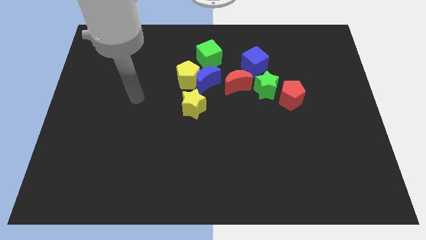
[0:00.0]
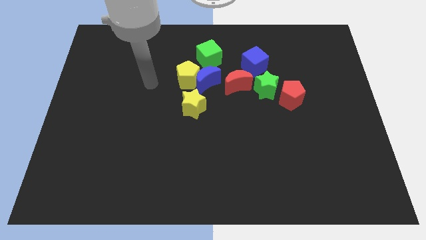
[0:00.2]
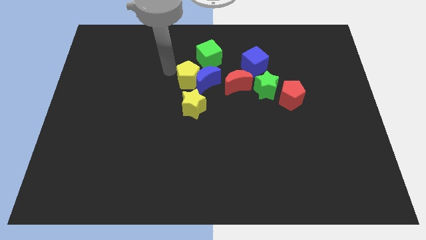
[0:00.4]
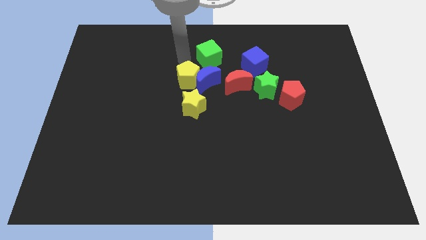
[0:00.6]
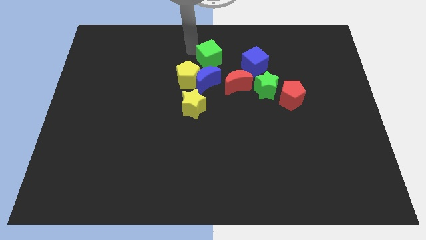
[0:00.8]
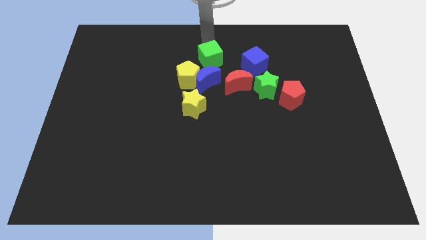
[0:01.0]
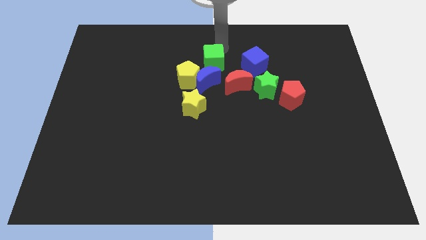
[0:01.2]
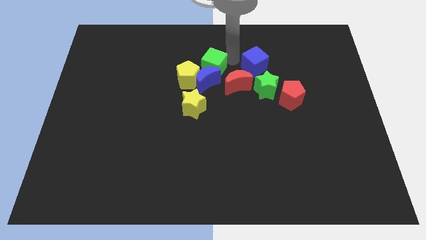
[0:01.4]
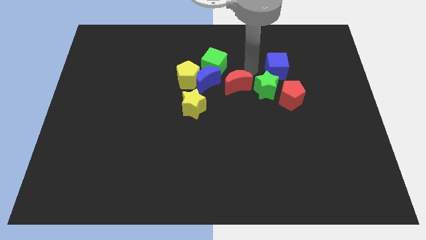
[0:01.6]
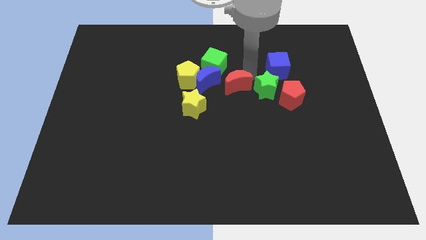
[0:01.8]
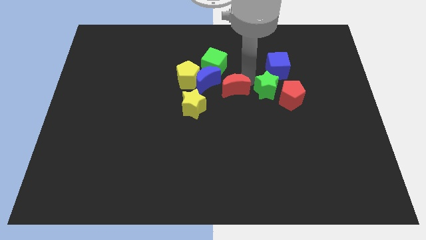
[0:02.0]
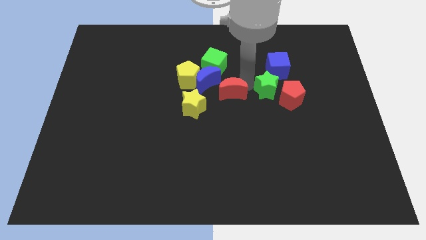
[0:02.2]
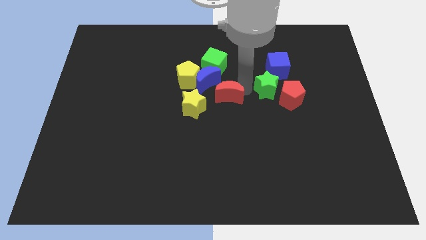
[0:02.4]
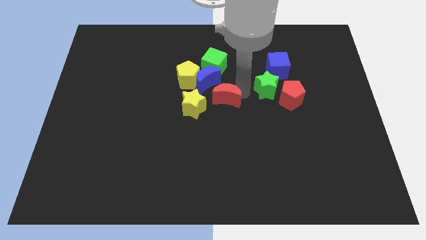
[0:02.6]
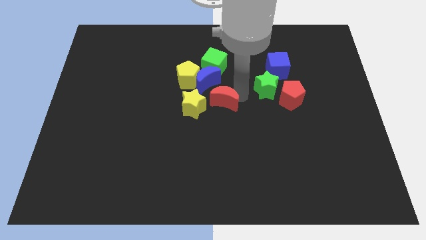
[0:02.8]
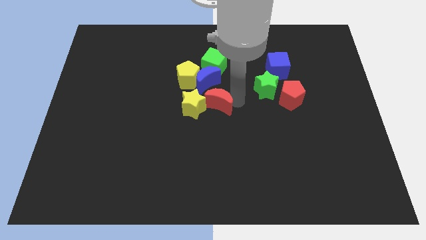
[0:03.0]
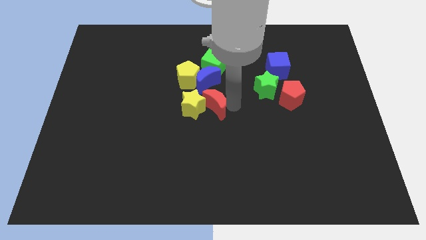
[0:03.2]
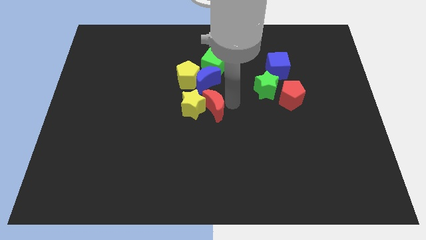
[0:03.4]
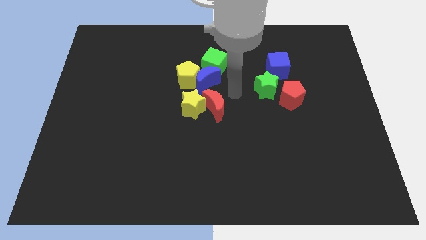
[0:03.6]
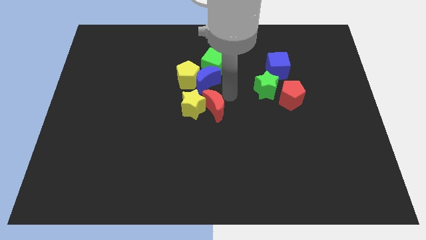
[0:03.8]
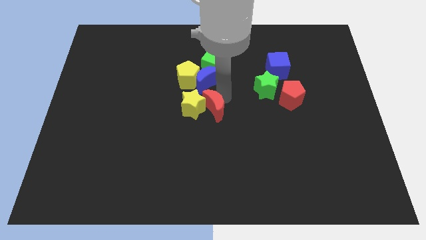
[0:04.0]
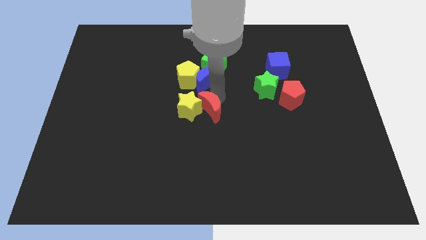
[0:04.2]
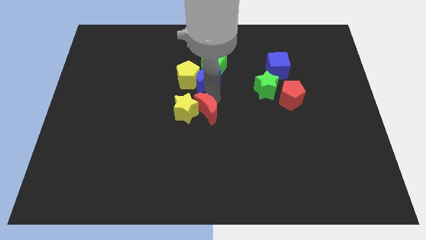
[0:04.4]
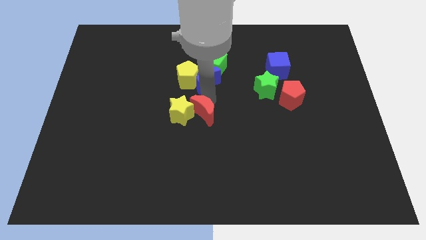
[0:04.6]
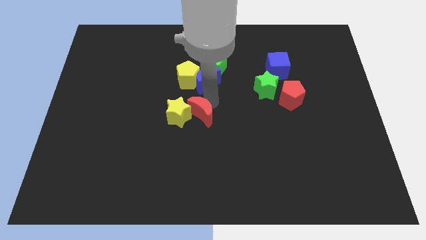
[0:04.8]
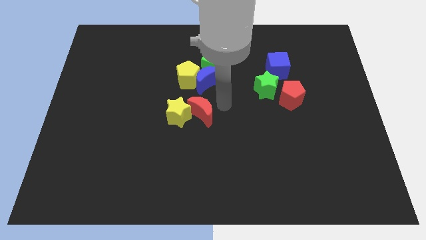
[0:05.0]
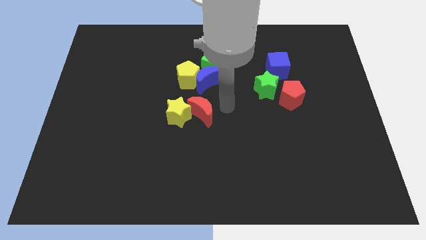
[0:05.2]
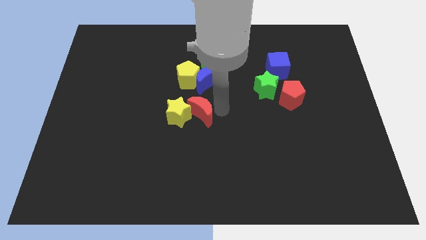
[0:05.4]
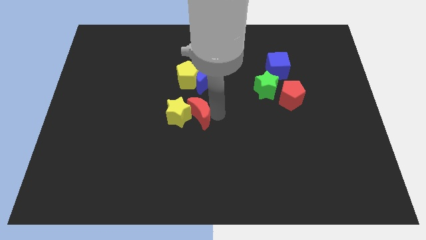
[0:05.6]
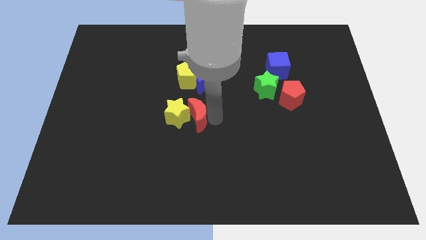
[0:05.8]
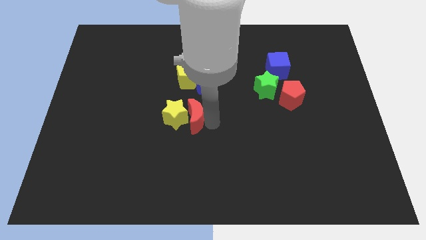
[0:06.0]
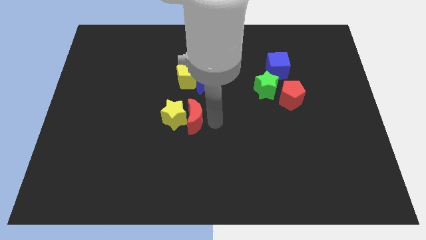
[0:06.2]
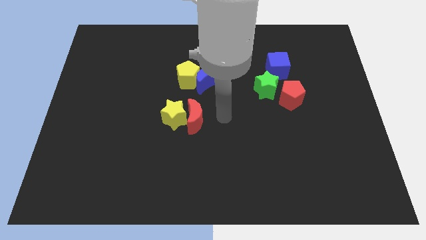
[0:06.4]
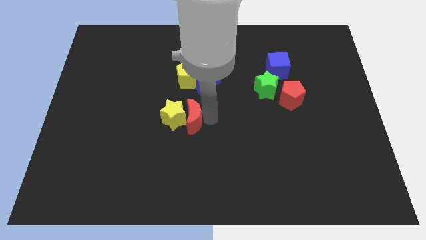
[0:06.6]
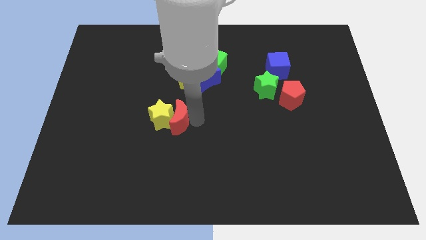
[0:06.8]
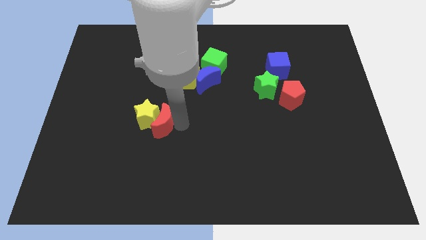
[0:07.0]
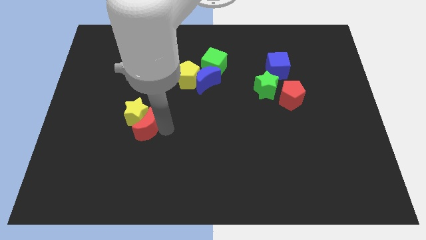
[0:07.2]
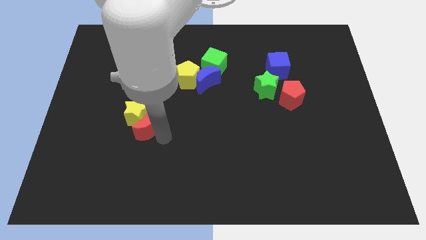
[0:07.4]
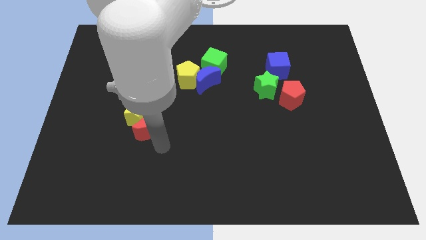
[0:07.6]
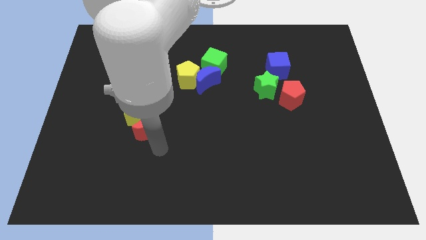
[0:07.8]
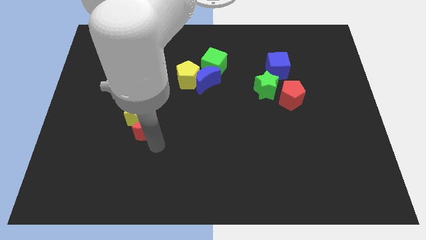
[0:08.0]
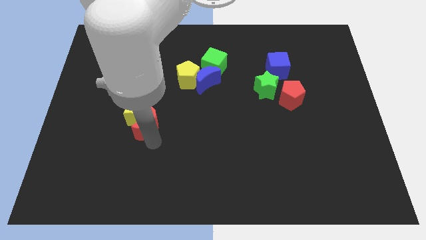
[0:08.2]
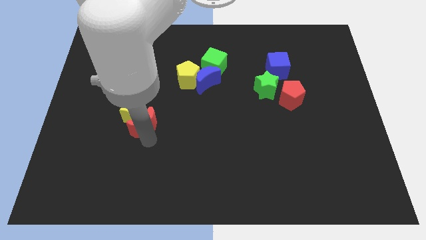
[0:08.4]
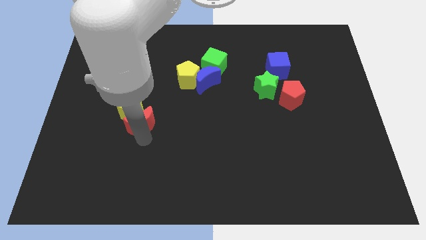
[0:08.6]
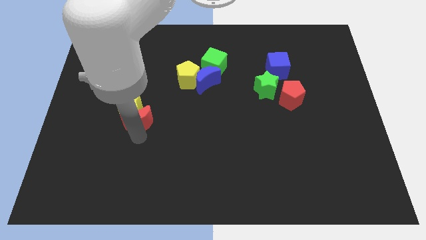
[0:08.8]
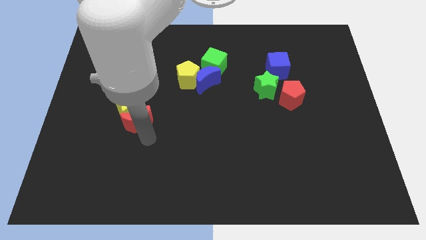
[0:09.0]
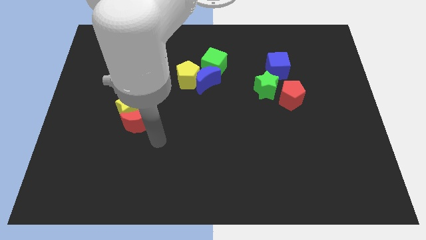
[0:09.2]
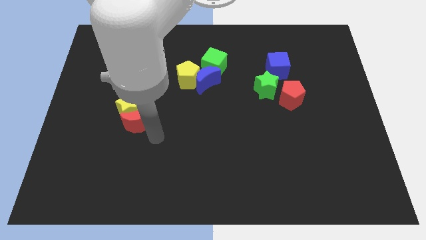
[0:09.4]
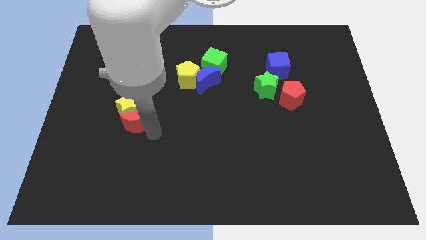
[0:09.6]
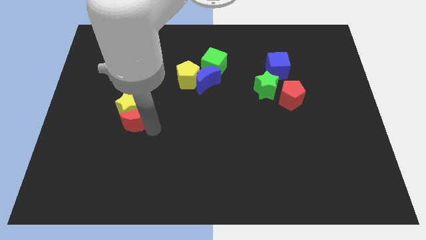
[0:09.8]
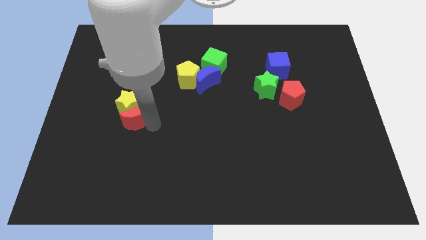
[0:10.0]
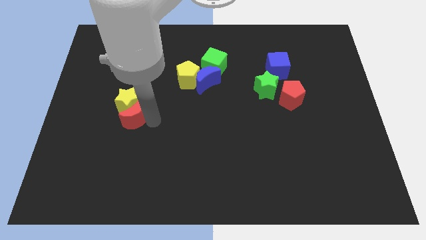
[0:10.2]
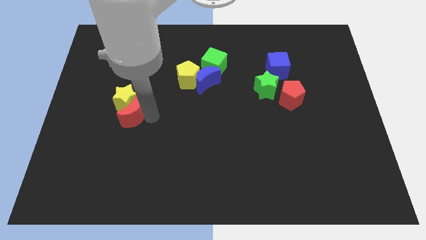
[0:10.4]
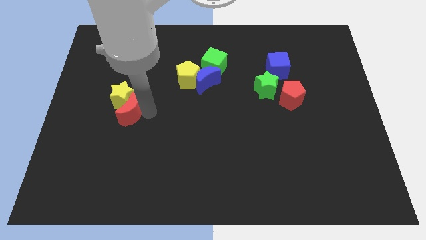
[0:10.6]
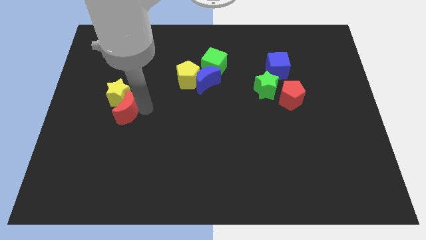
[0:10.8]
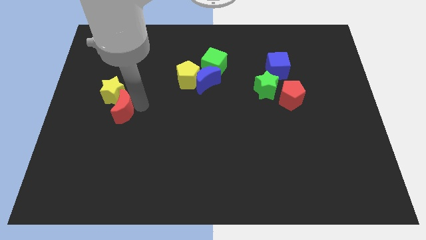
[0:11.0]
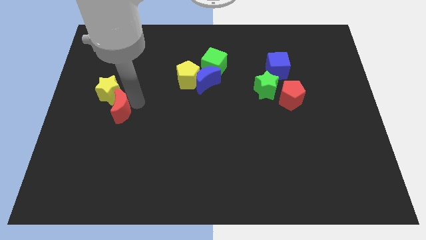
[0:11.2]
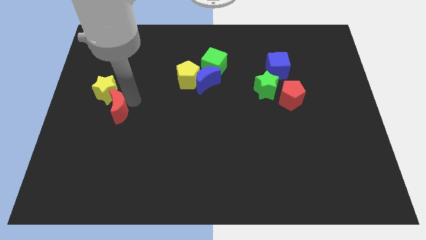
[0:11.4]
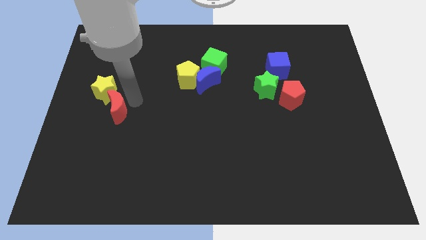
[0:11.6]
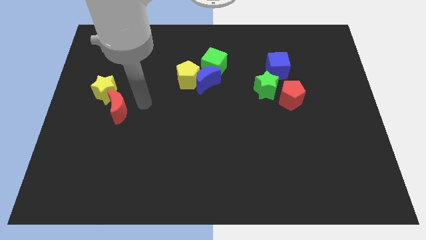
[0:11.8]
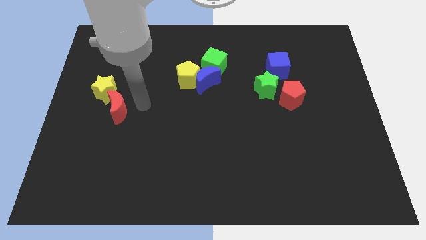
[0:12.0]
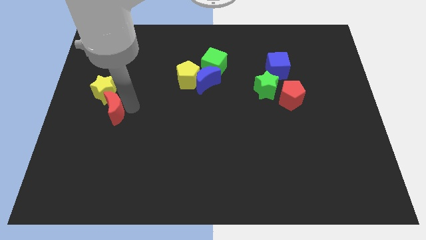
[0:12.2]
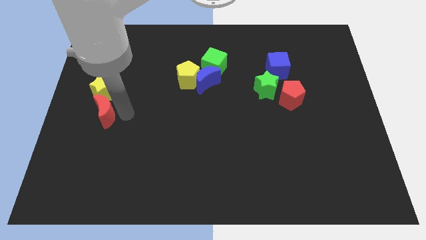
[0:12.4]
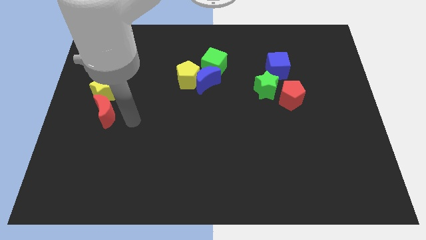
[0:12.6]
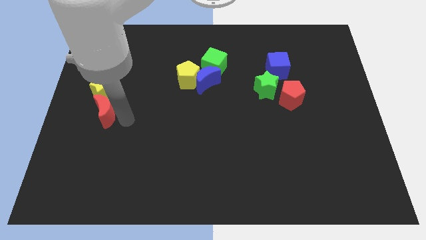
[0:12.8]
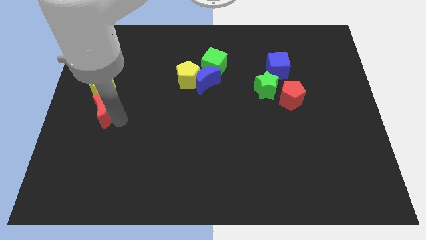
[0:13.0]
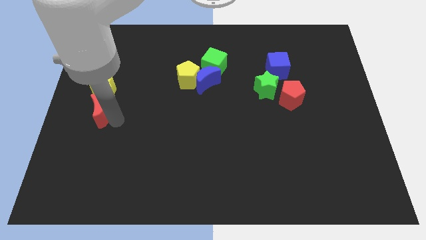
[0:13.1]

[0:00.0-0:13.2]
slide the red moon to the left side of the board

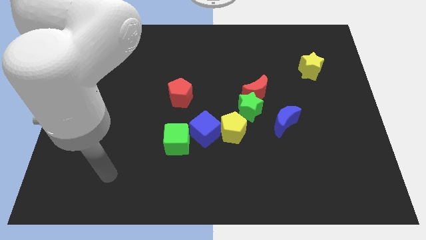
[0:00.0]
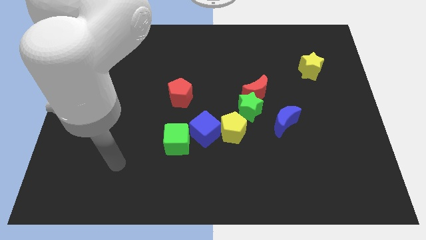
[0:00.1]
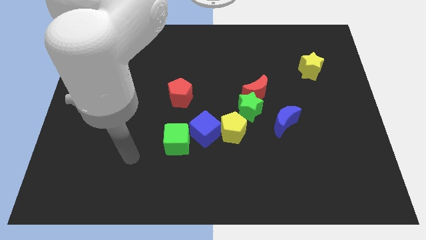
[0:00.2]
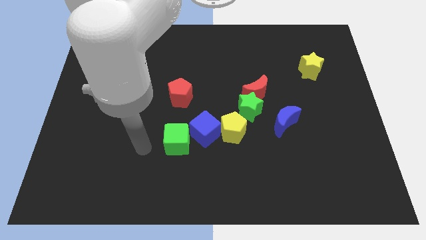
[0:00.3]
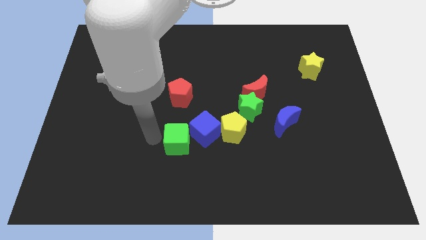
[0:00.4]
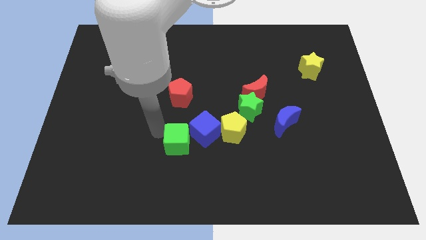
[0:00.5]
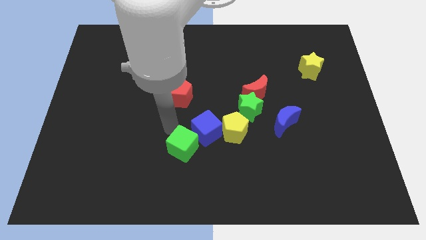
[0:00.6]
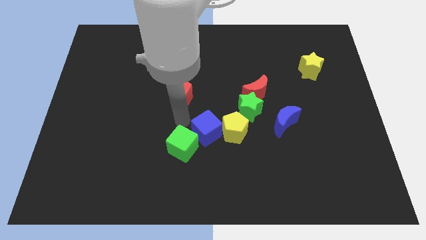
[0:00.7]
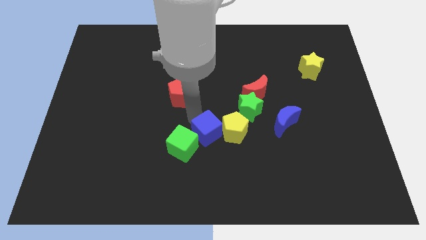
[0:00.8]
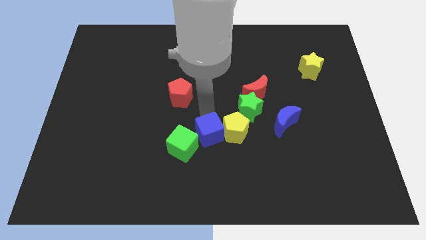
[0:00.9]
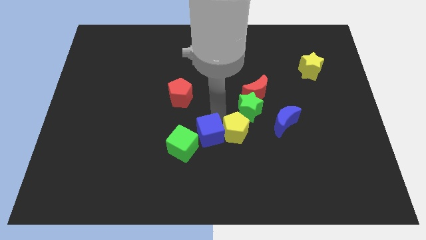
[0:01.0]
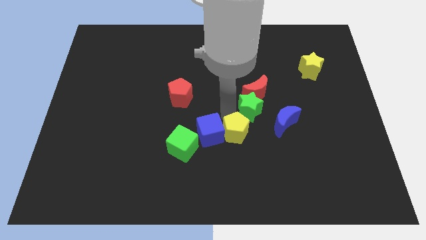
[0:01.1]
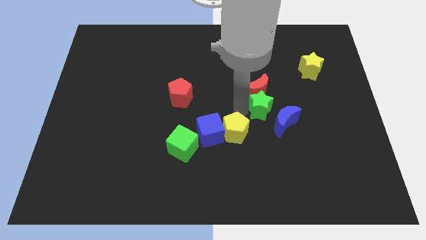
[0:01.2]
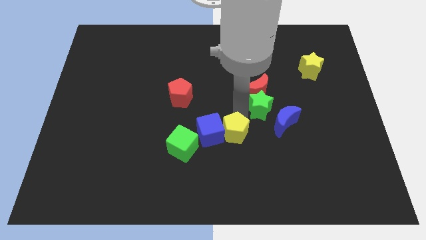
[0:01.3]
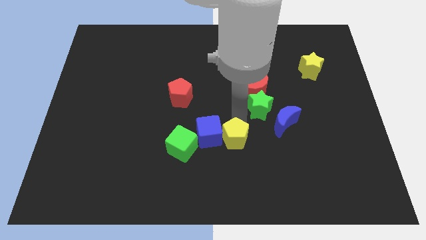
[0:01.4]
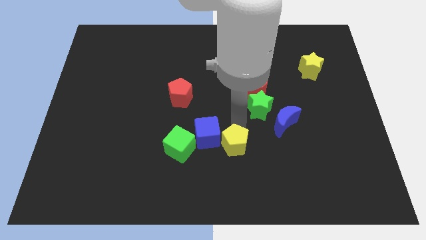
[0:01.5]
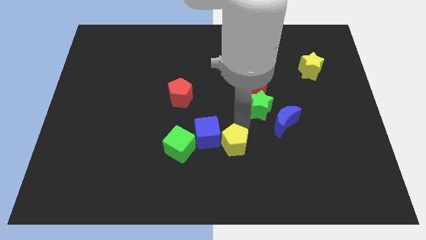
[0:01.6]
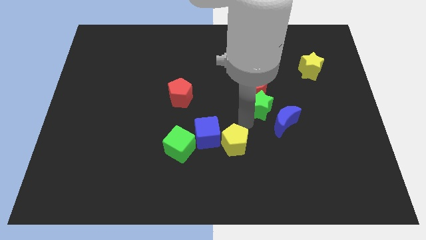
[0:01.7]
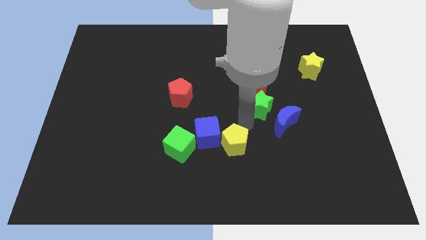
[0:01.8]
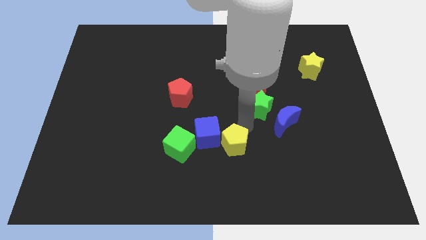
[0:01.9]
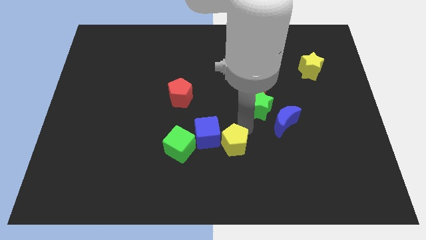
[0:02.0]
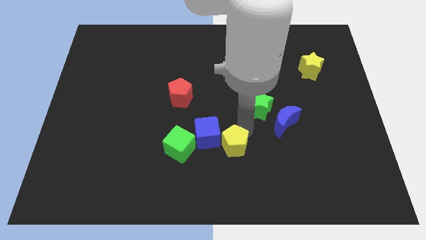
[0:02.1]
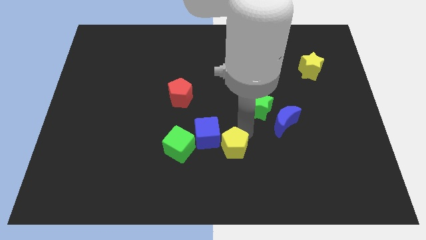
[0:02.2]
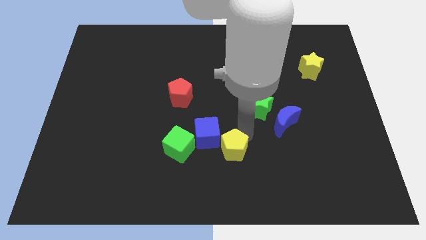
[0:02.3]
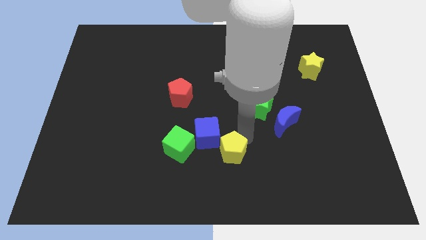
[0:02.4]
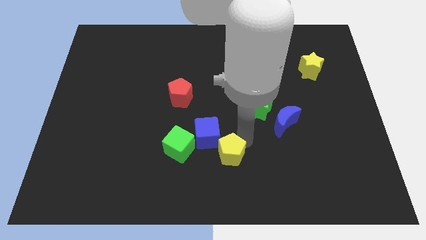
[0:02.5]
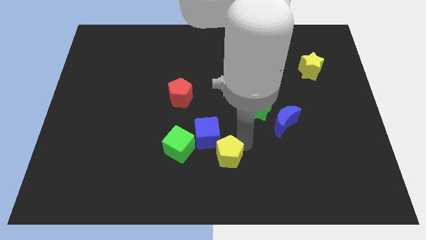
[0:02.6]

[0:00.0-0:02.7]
push the yellow pentagon to the bottom
